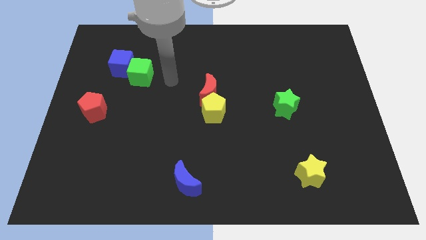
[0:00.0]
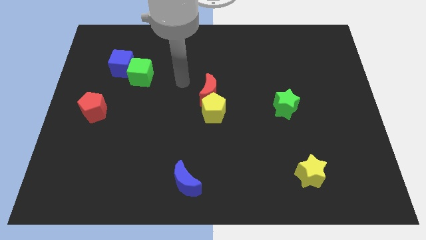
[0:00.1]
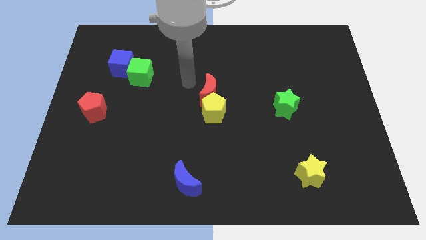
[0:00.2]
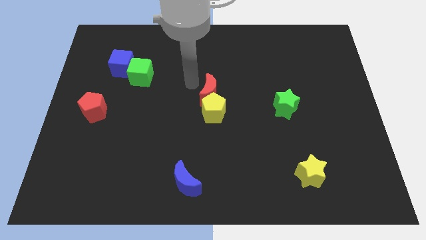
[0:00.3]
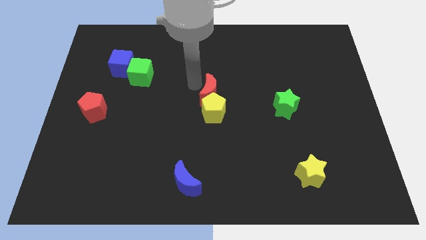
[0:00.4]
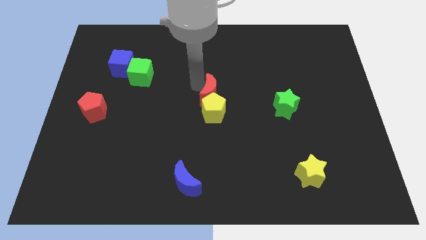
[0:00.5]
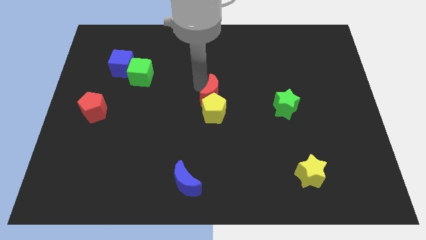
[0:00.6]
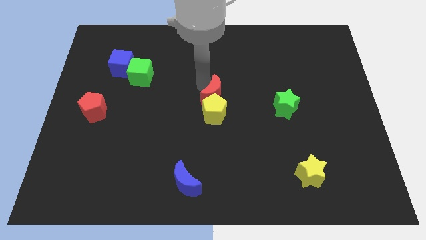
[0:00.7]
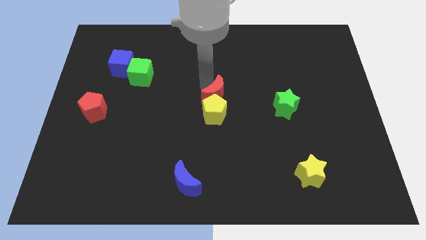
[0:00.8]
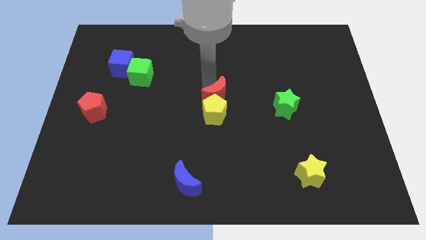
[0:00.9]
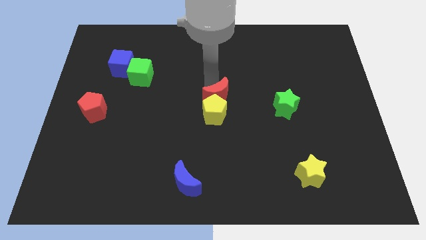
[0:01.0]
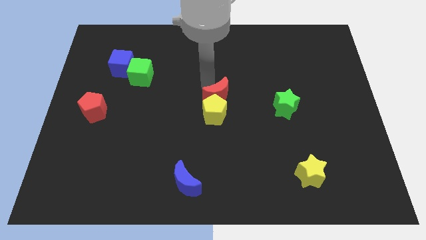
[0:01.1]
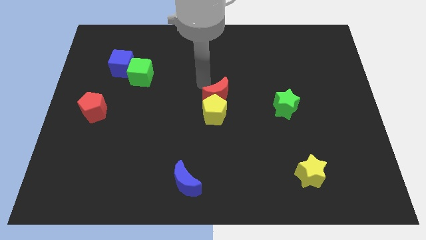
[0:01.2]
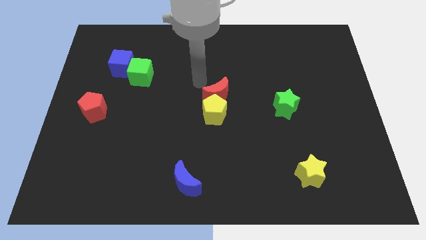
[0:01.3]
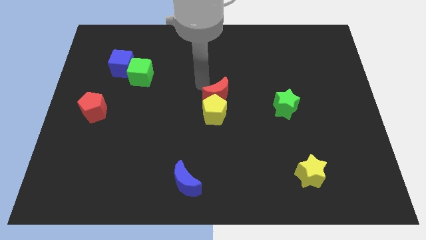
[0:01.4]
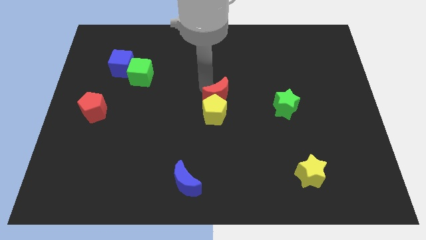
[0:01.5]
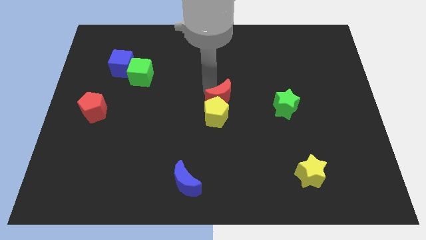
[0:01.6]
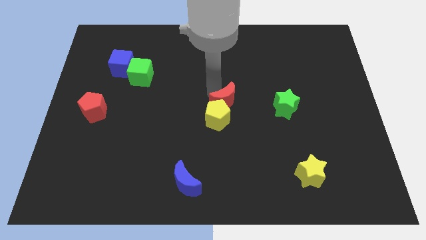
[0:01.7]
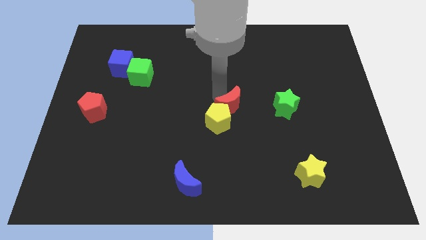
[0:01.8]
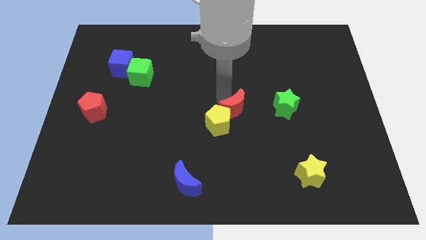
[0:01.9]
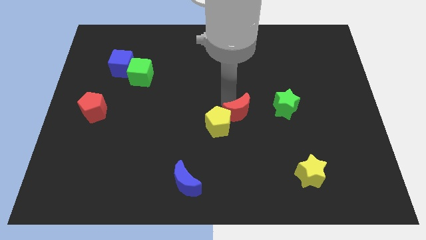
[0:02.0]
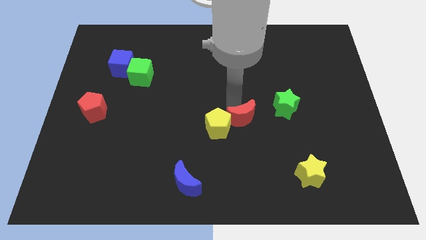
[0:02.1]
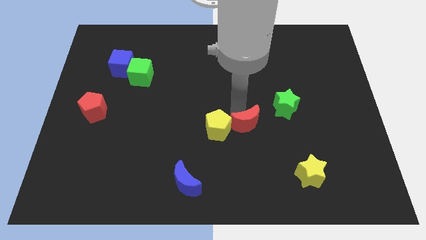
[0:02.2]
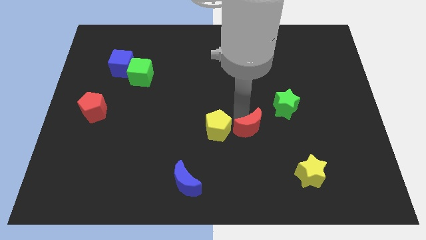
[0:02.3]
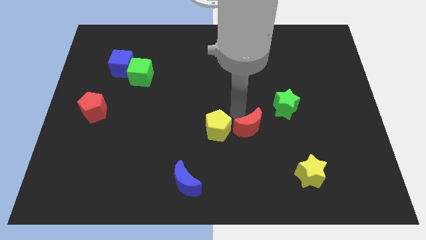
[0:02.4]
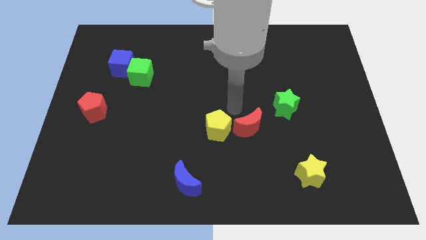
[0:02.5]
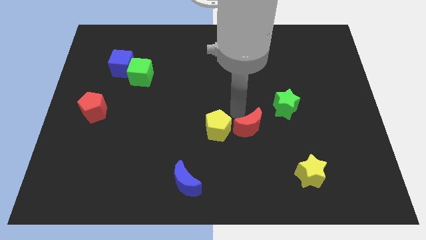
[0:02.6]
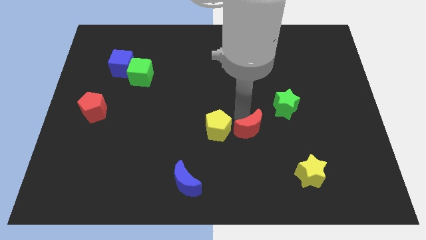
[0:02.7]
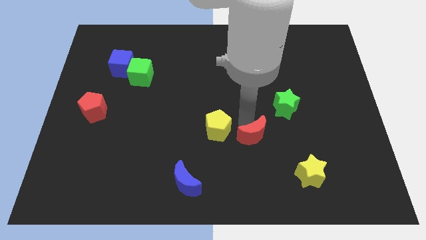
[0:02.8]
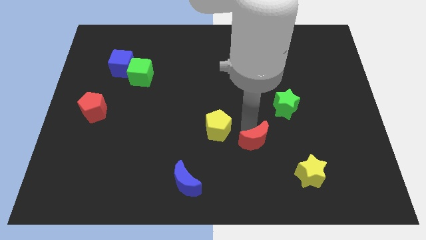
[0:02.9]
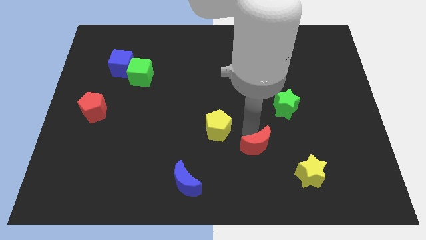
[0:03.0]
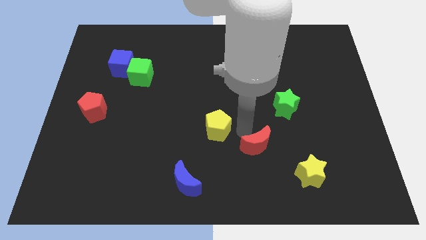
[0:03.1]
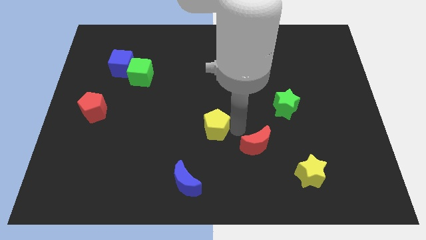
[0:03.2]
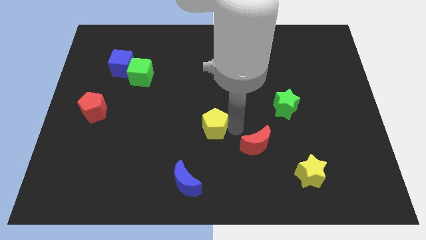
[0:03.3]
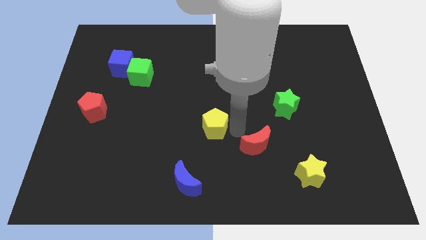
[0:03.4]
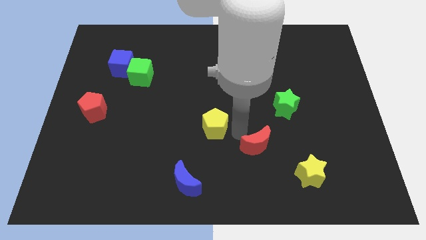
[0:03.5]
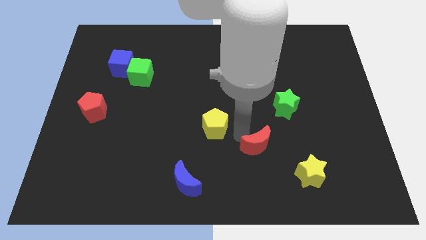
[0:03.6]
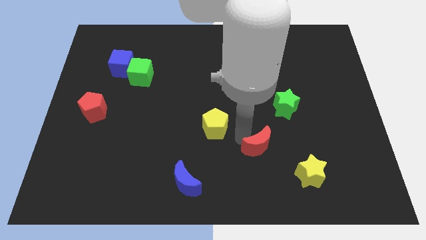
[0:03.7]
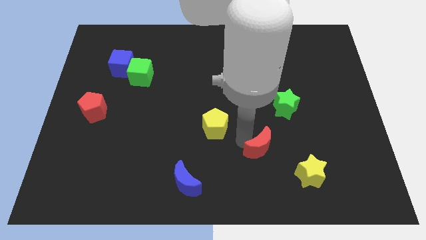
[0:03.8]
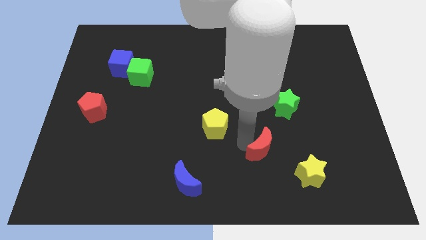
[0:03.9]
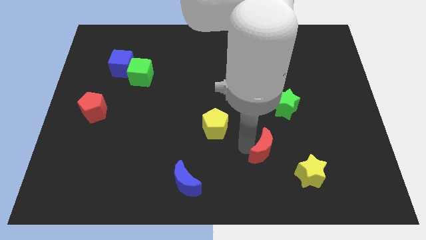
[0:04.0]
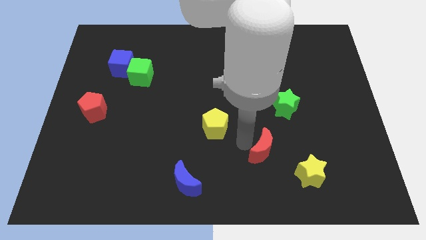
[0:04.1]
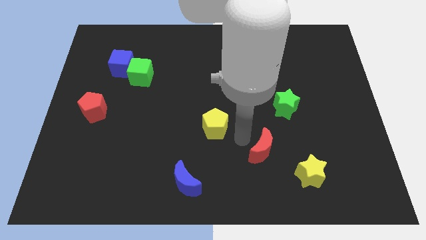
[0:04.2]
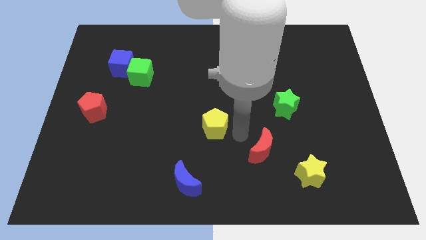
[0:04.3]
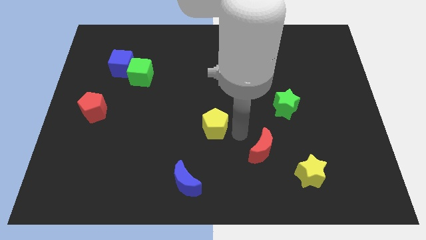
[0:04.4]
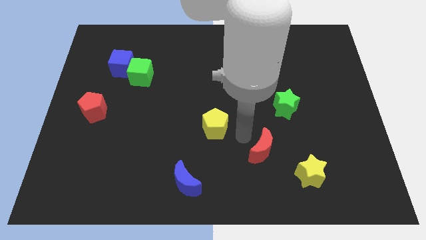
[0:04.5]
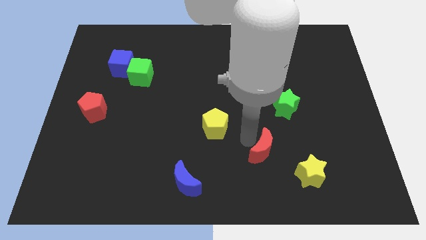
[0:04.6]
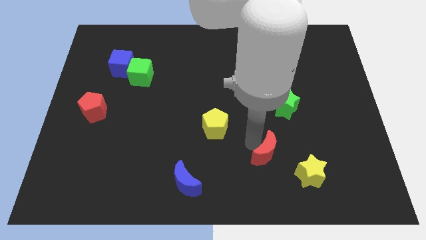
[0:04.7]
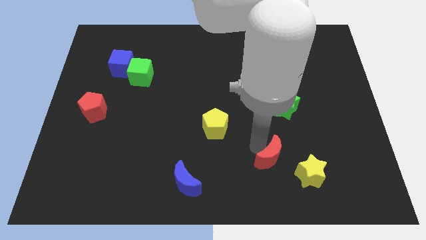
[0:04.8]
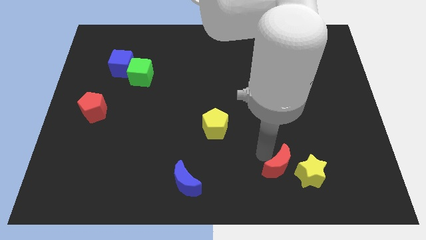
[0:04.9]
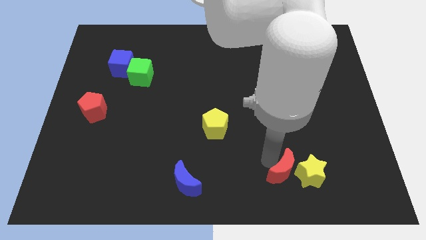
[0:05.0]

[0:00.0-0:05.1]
push the red moon next to the yellow star
